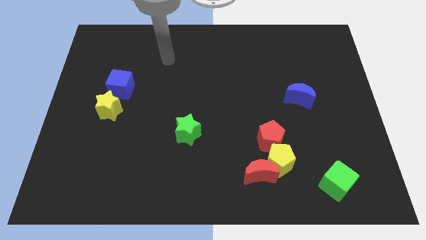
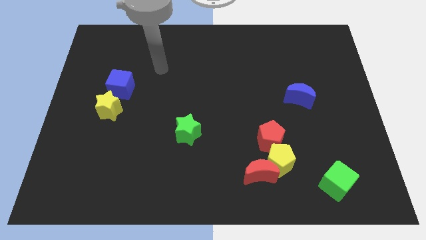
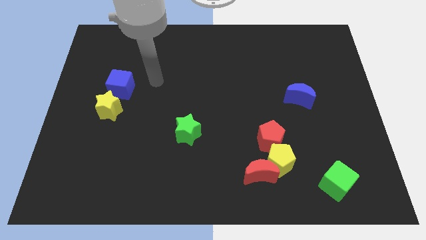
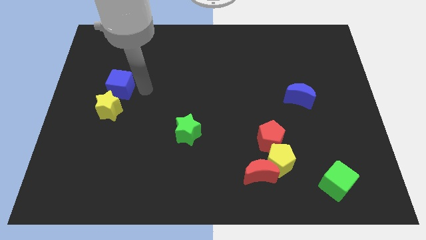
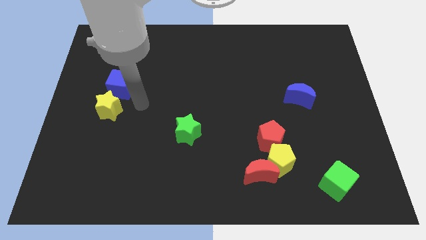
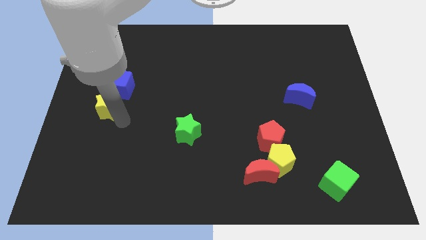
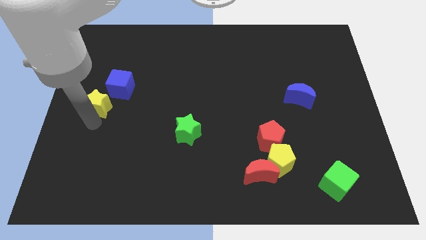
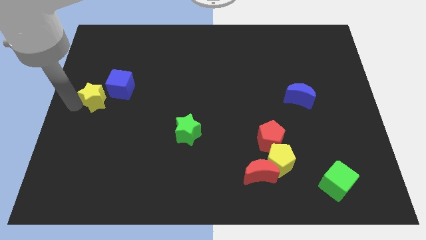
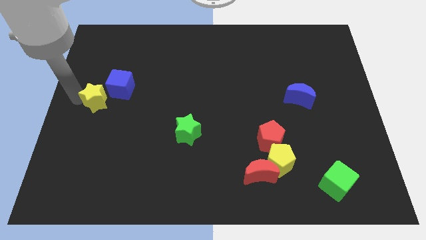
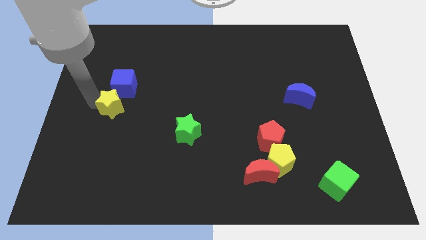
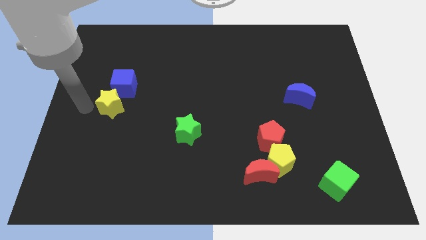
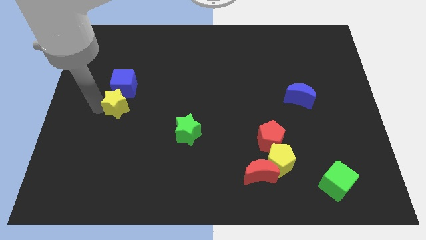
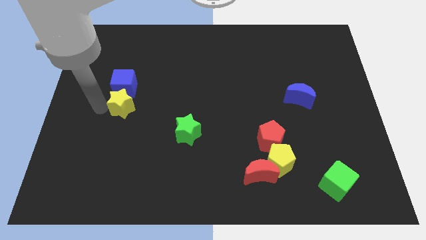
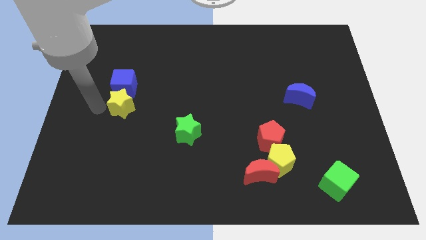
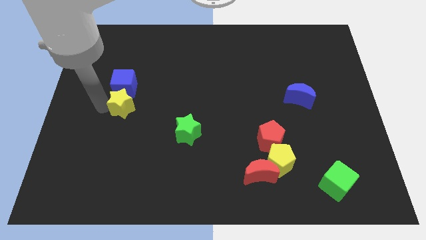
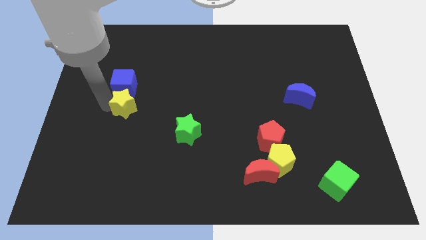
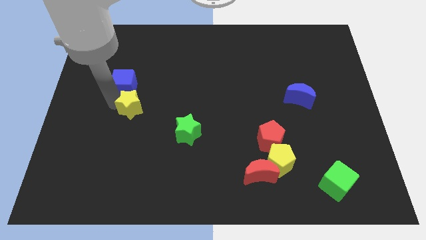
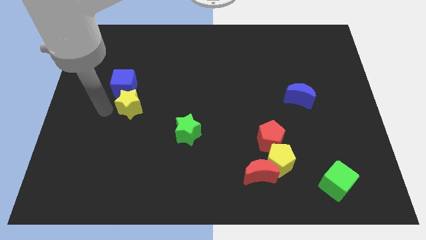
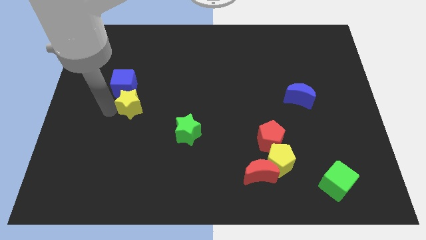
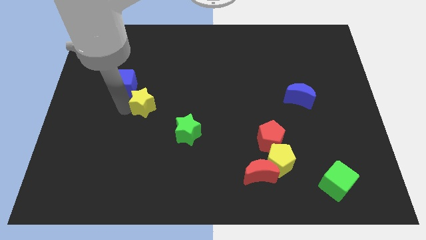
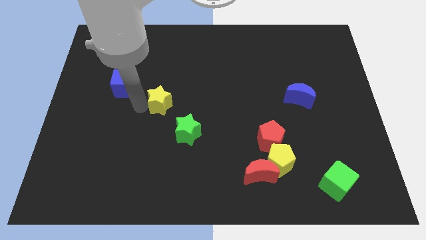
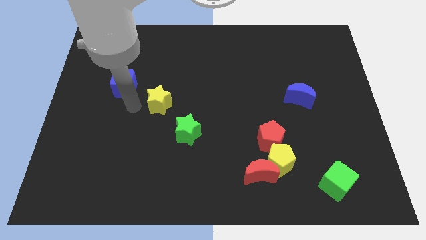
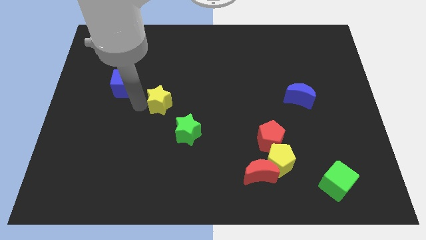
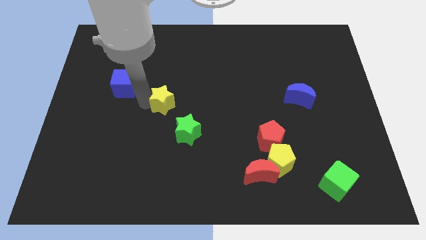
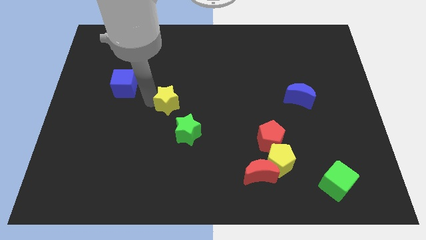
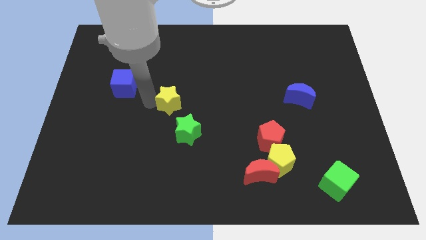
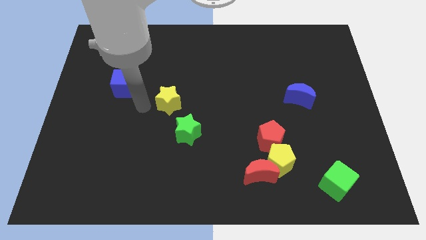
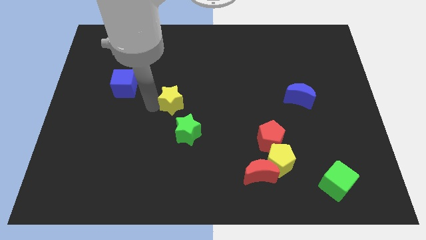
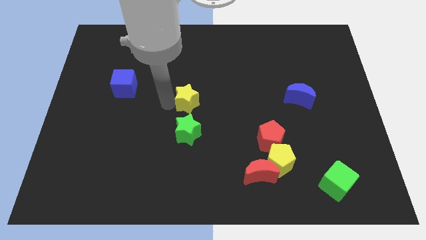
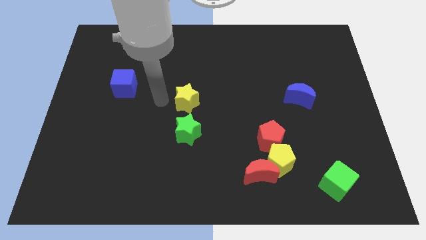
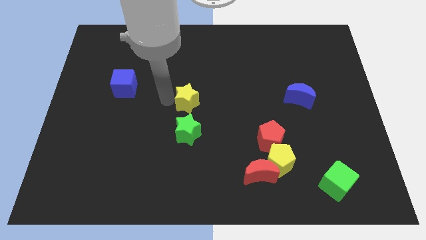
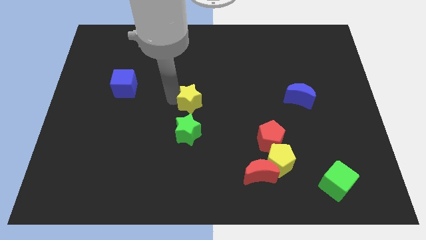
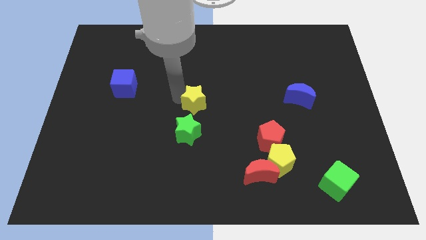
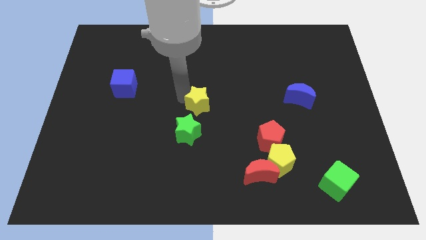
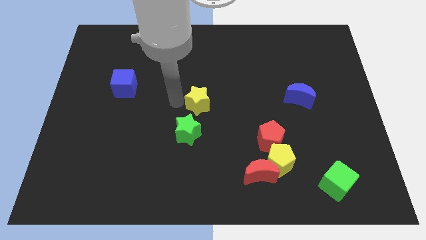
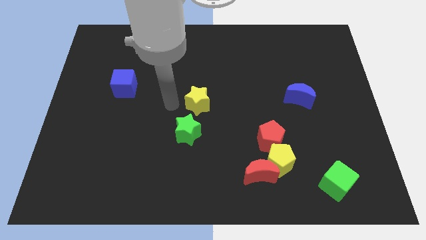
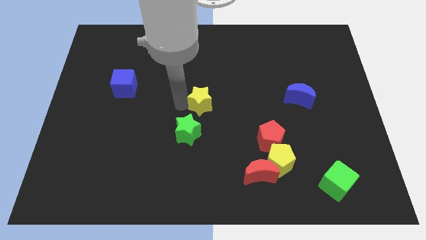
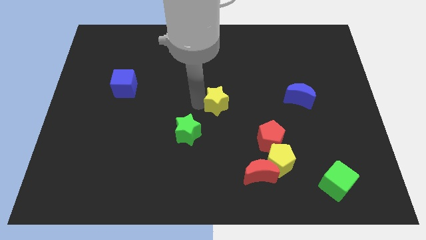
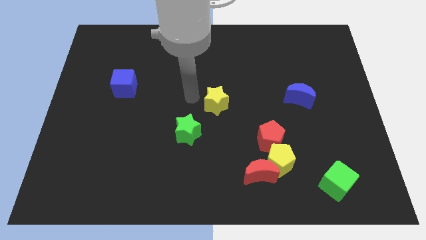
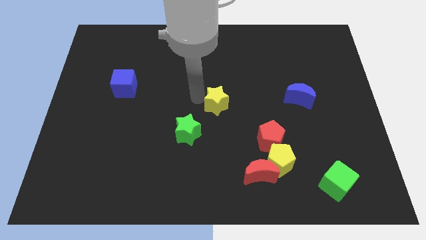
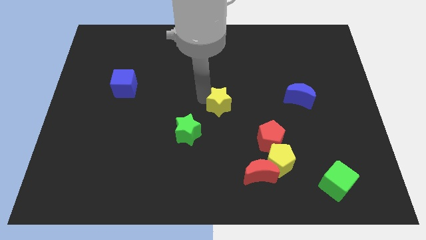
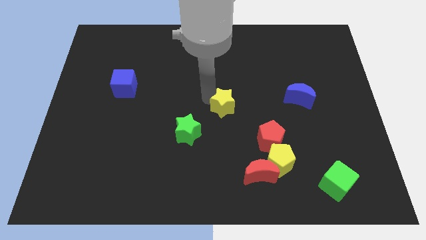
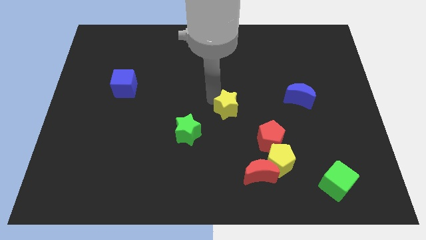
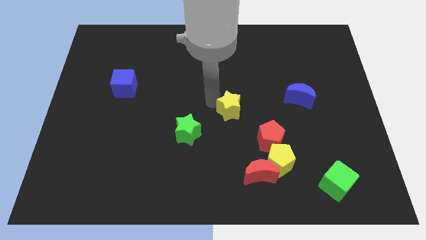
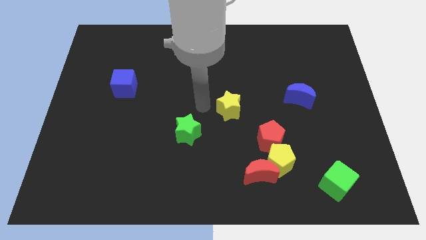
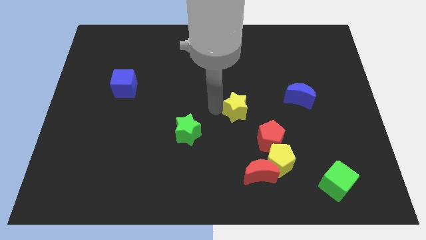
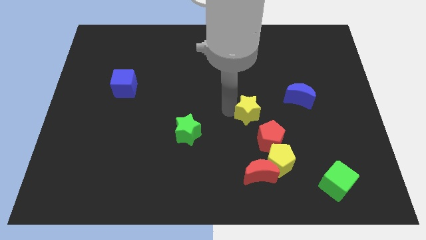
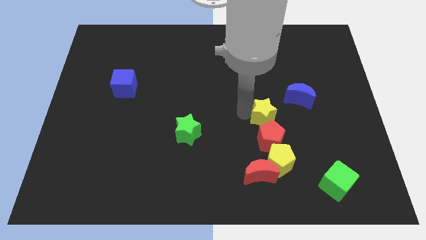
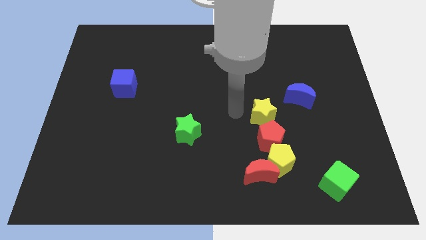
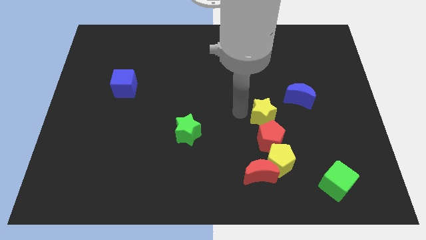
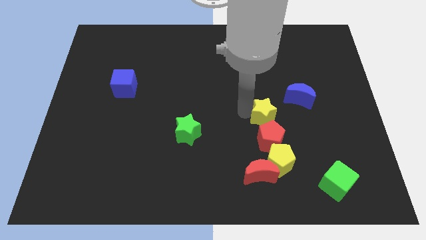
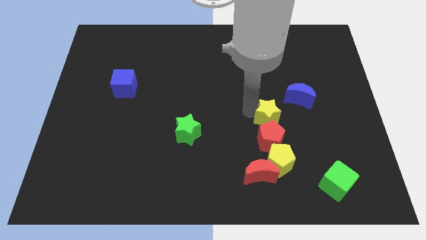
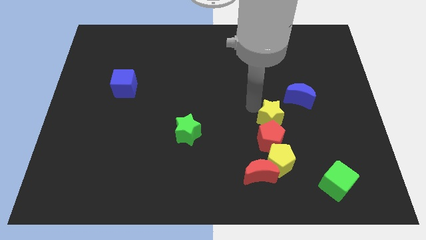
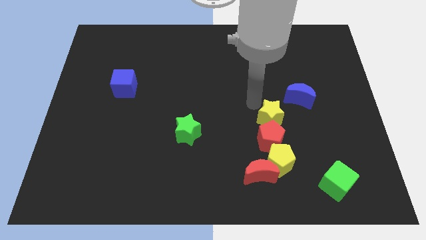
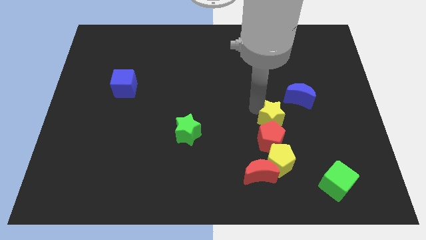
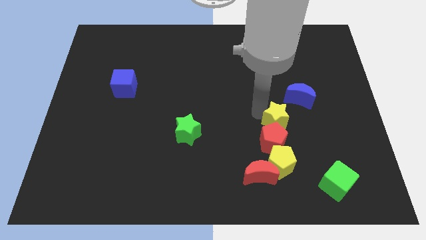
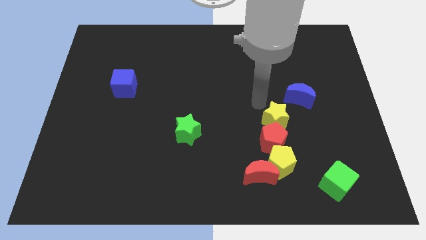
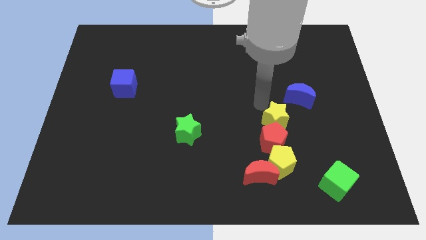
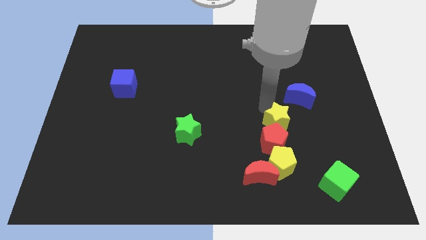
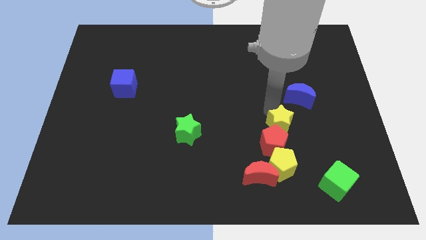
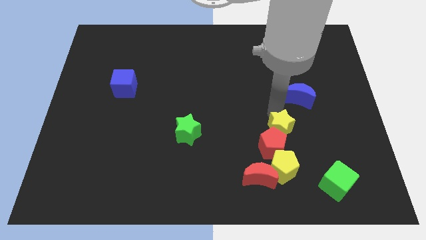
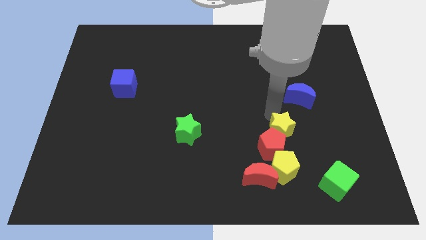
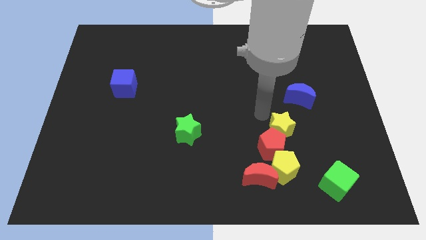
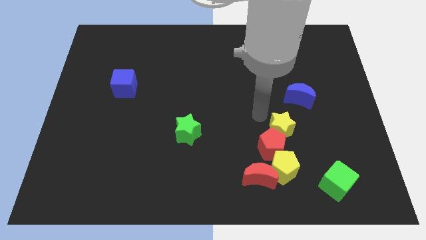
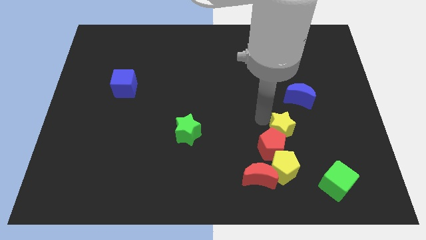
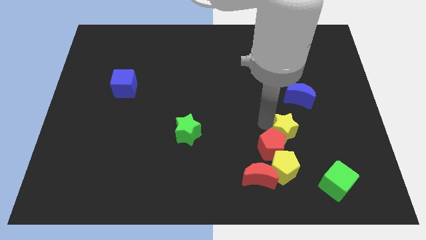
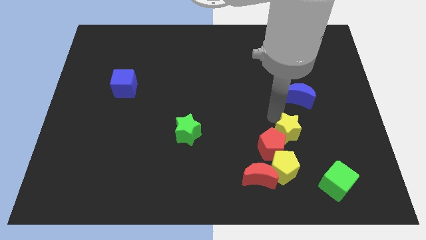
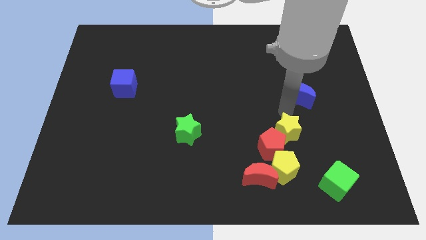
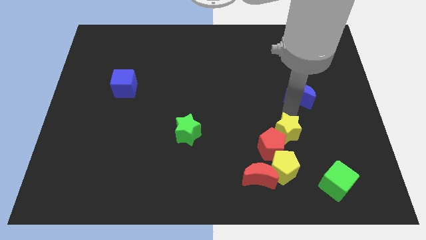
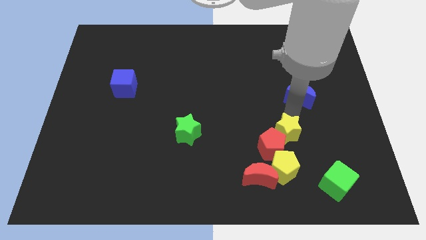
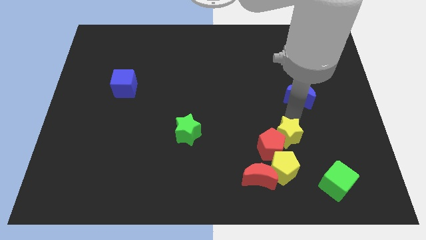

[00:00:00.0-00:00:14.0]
put the yellow star to the top right of the red moon
